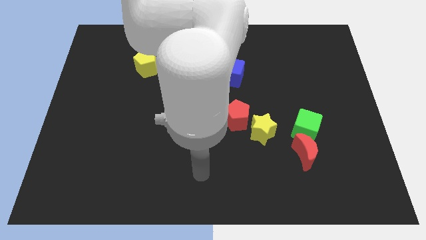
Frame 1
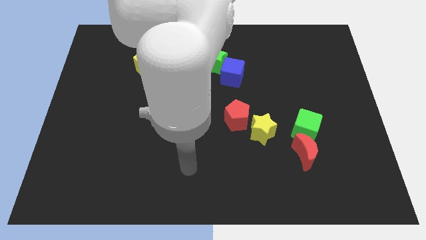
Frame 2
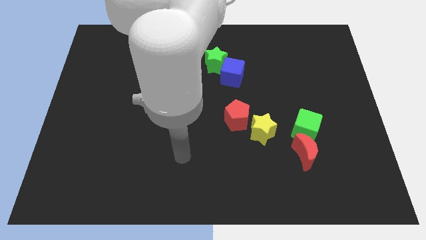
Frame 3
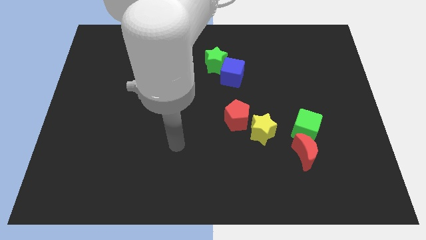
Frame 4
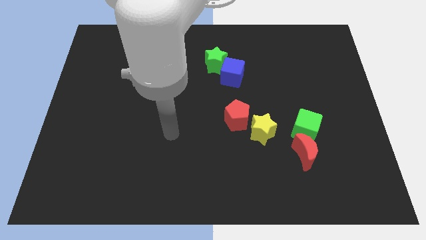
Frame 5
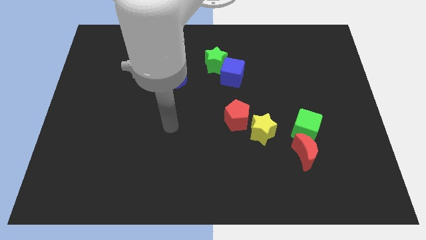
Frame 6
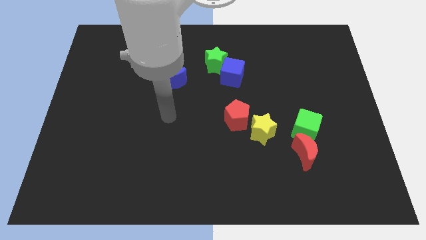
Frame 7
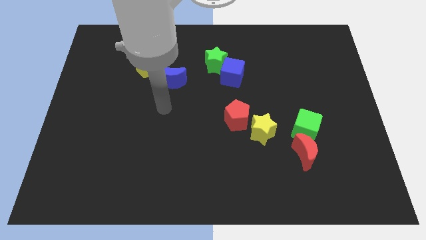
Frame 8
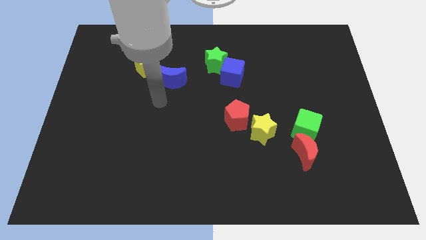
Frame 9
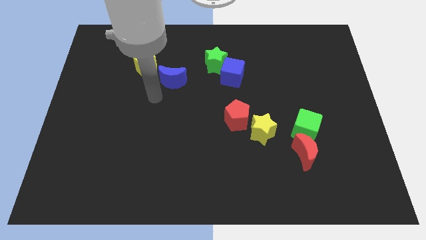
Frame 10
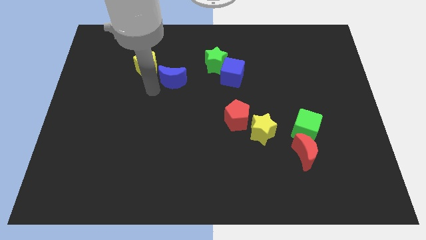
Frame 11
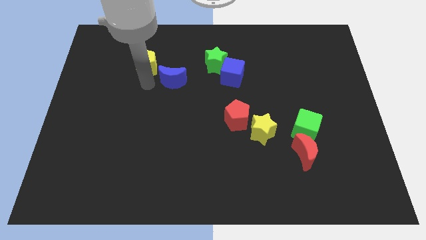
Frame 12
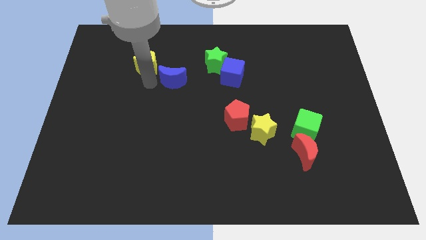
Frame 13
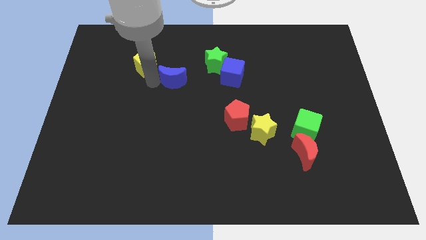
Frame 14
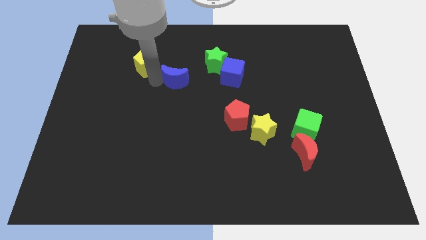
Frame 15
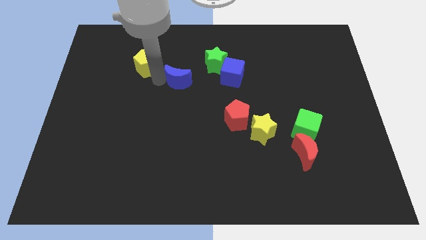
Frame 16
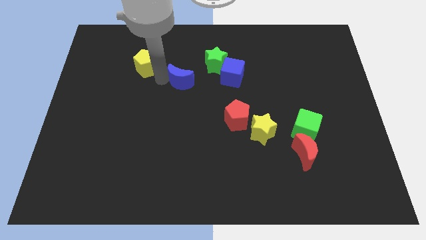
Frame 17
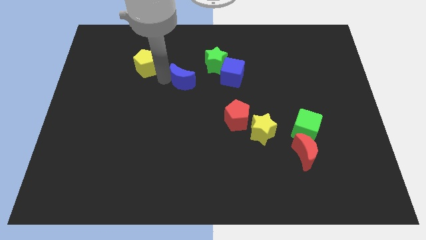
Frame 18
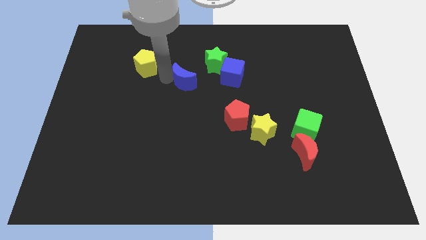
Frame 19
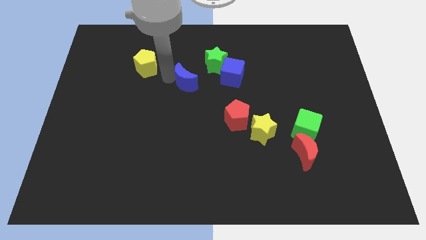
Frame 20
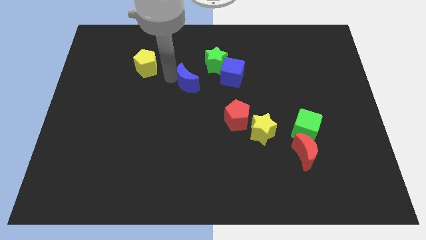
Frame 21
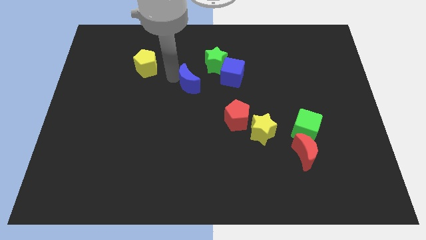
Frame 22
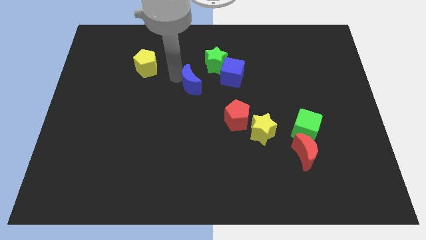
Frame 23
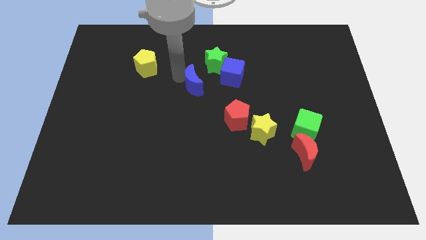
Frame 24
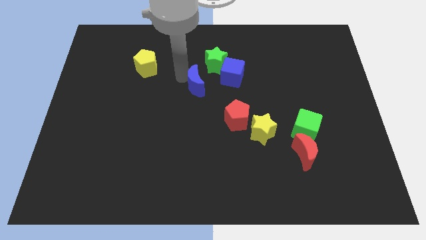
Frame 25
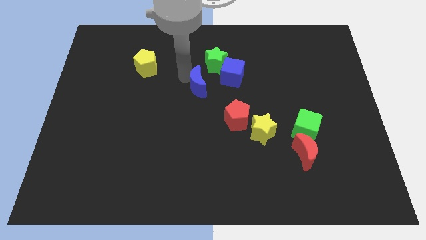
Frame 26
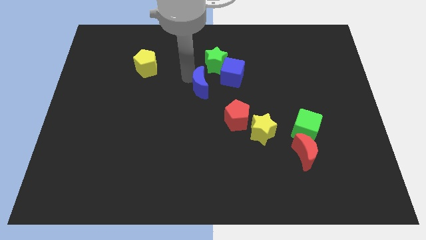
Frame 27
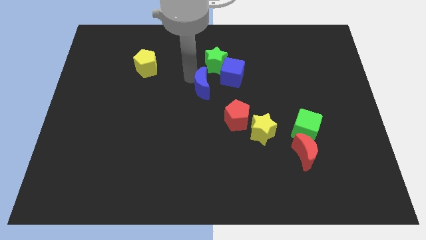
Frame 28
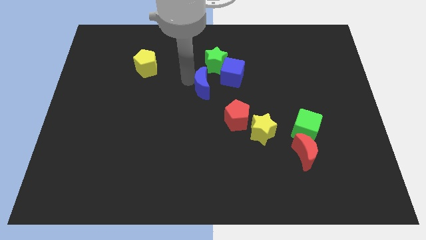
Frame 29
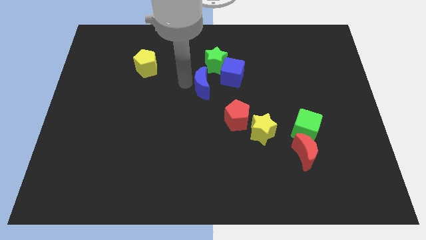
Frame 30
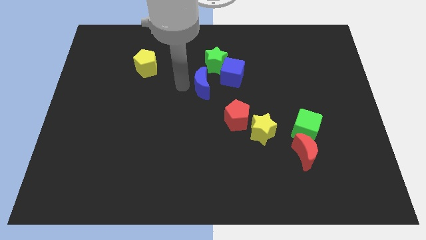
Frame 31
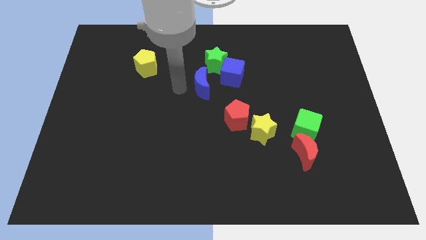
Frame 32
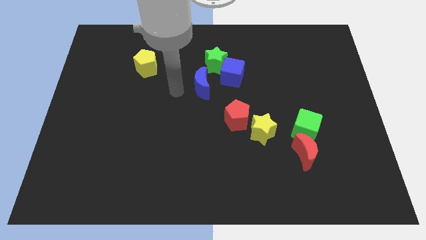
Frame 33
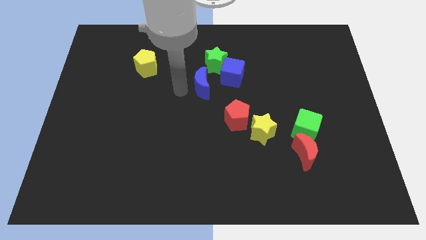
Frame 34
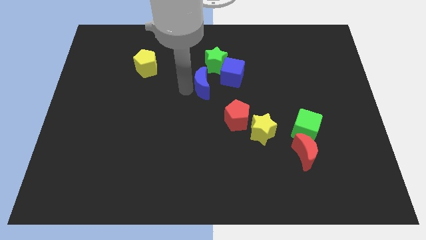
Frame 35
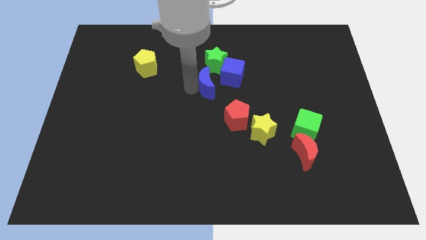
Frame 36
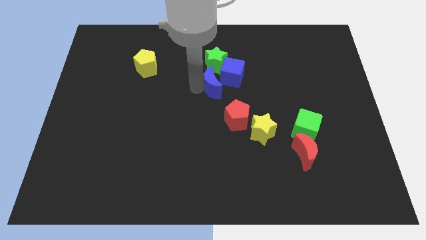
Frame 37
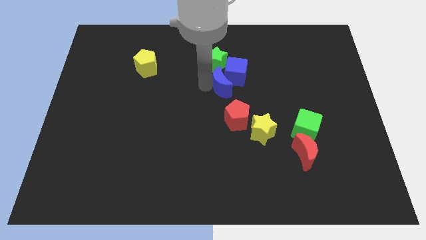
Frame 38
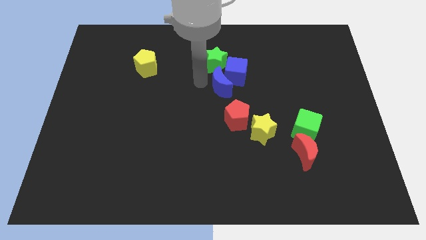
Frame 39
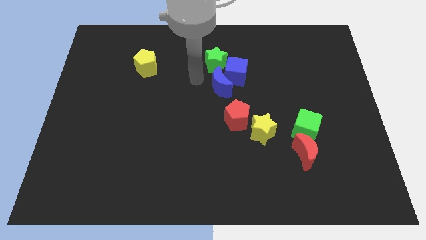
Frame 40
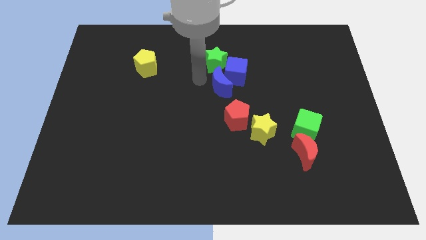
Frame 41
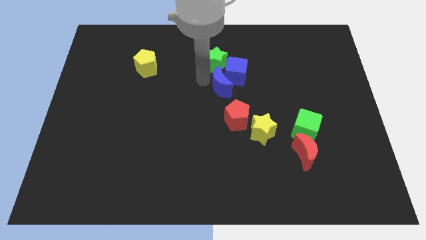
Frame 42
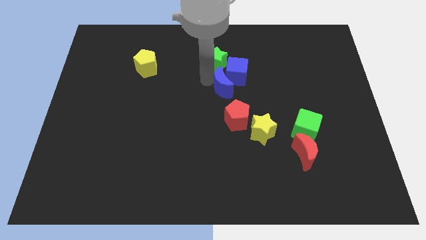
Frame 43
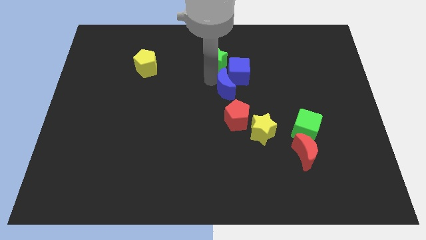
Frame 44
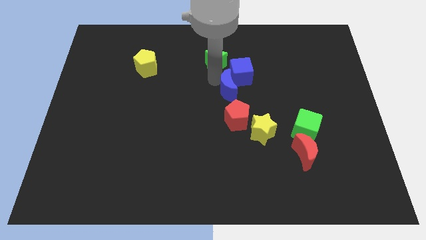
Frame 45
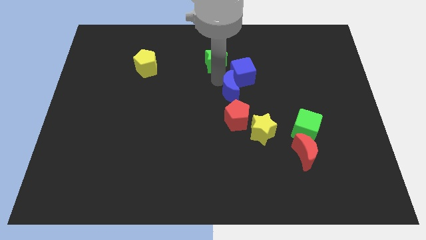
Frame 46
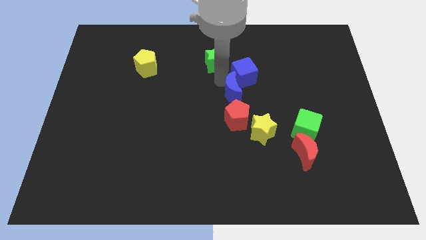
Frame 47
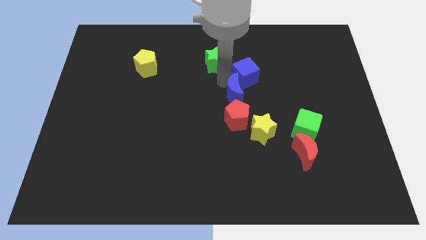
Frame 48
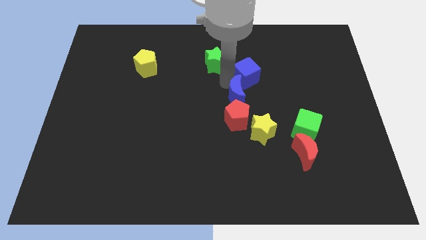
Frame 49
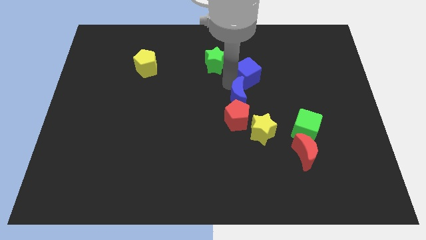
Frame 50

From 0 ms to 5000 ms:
push the blue moon above the yellow star

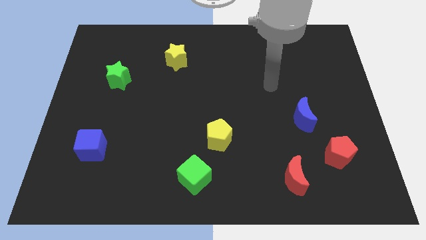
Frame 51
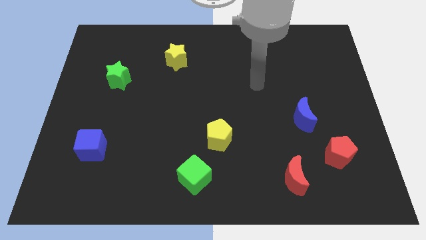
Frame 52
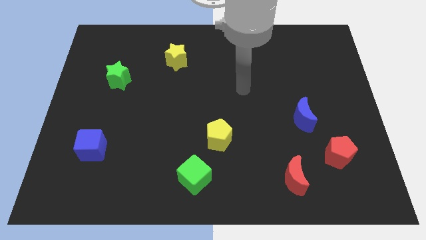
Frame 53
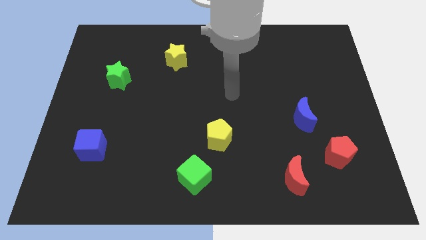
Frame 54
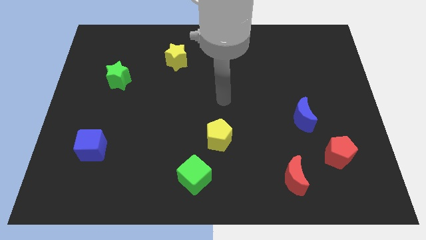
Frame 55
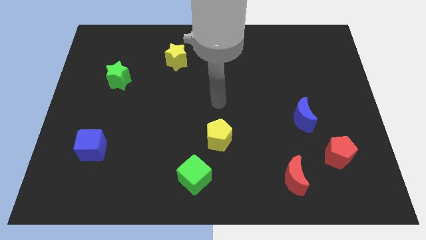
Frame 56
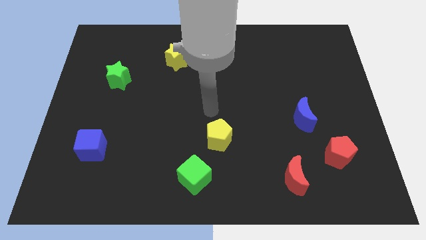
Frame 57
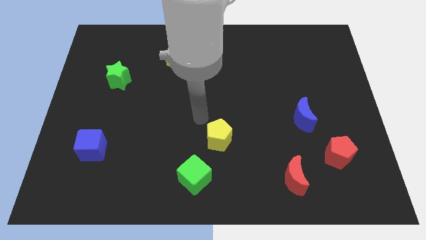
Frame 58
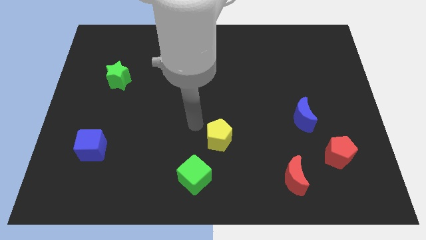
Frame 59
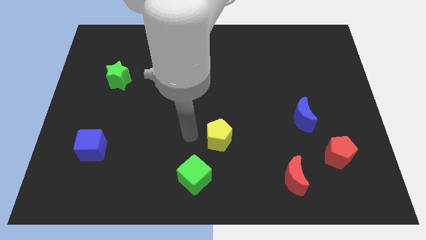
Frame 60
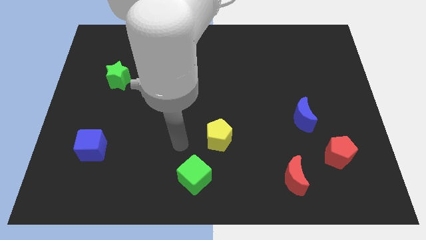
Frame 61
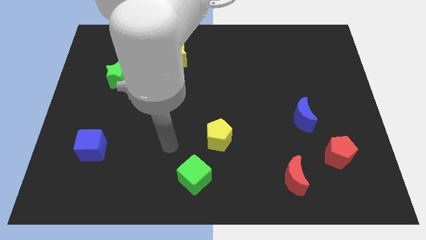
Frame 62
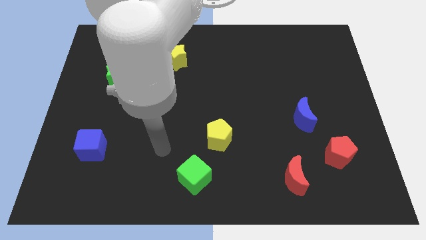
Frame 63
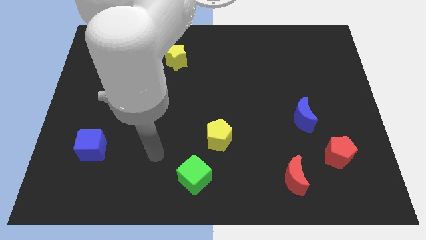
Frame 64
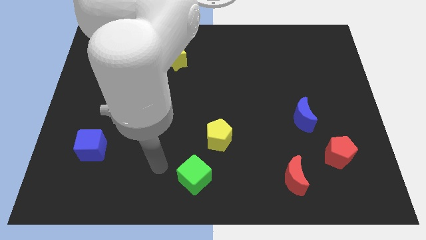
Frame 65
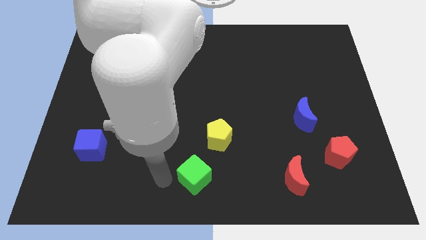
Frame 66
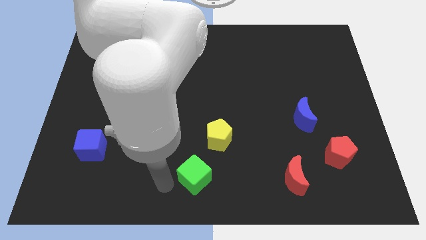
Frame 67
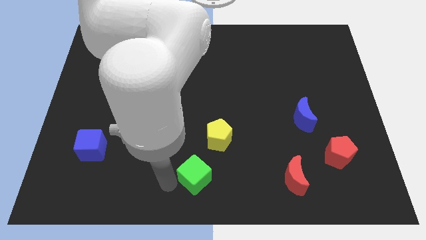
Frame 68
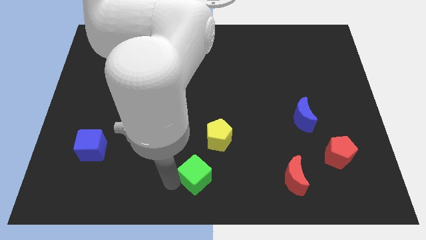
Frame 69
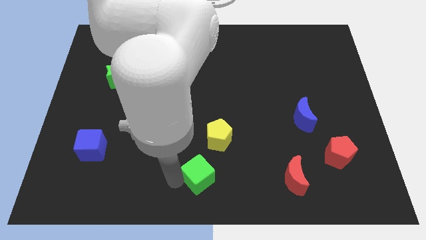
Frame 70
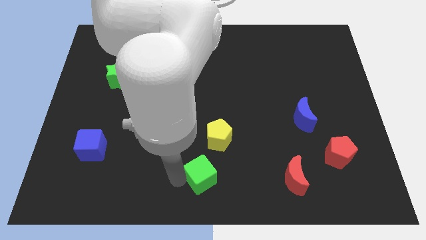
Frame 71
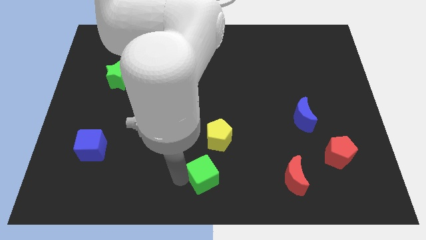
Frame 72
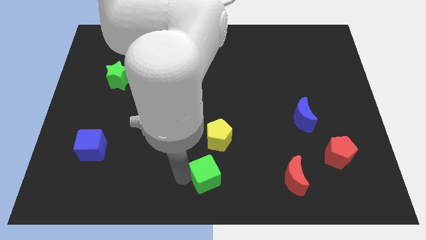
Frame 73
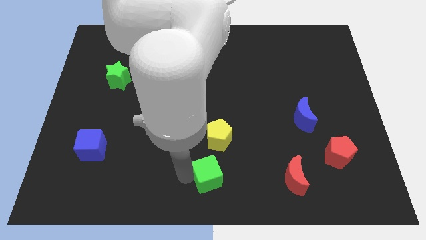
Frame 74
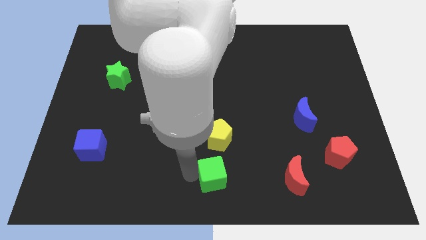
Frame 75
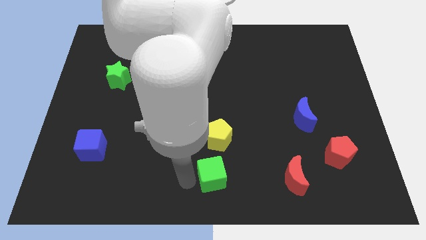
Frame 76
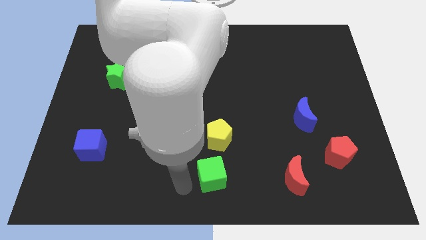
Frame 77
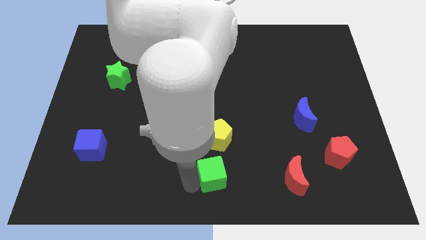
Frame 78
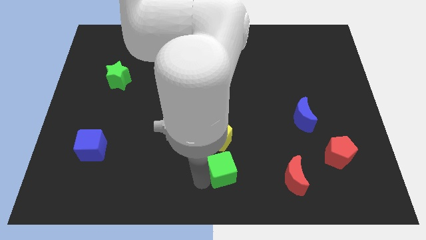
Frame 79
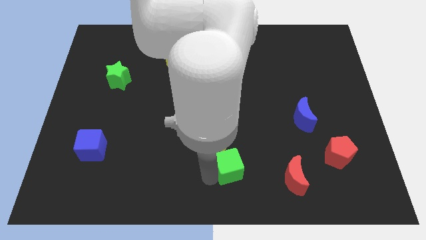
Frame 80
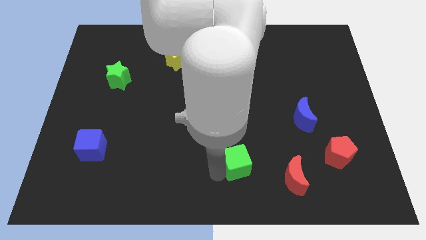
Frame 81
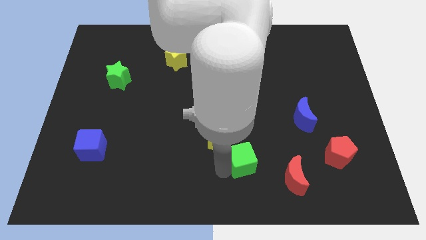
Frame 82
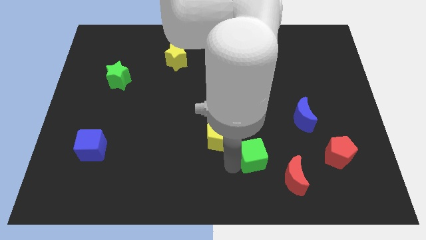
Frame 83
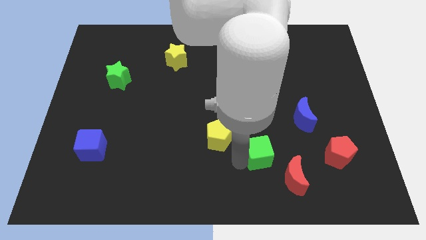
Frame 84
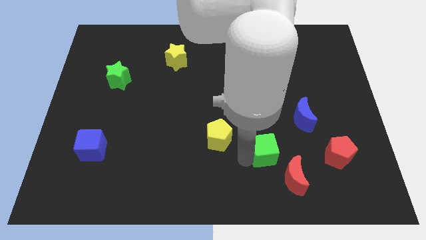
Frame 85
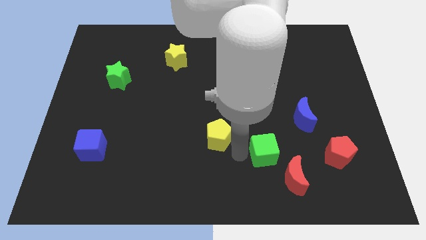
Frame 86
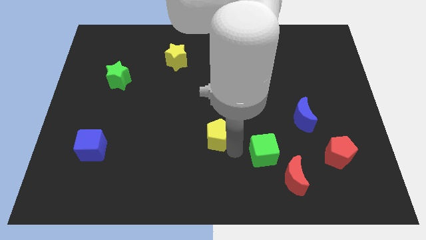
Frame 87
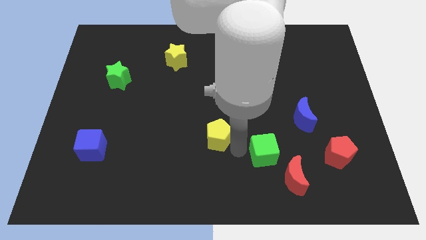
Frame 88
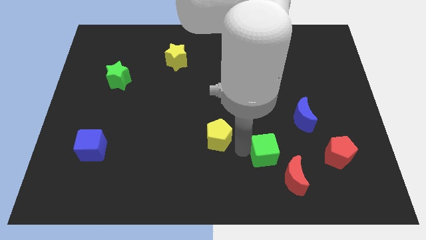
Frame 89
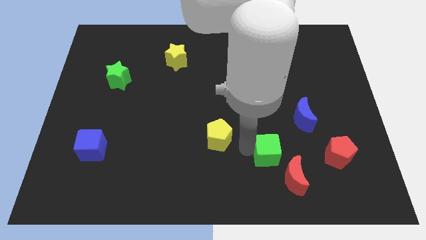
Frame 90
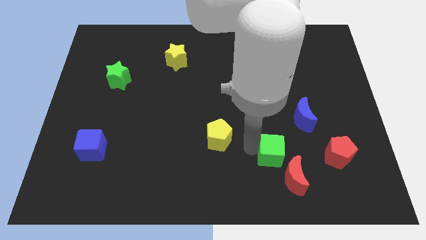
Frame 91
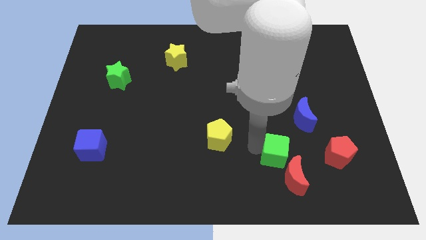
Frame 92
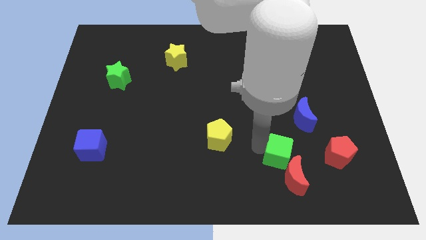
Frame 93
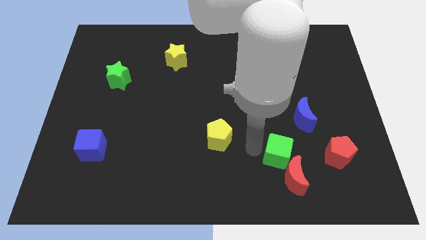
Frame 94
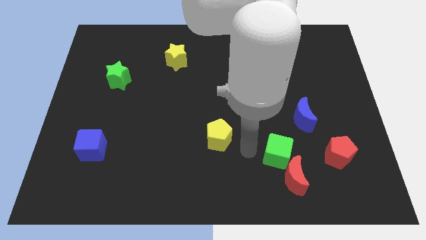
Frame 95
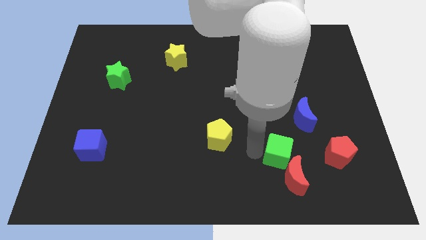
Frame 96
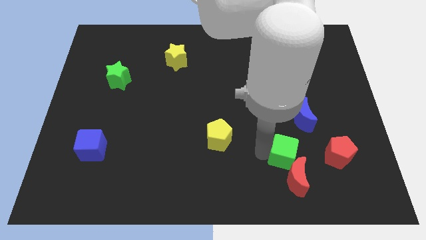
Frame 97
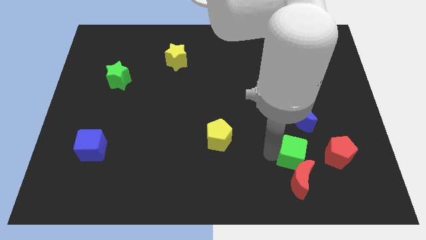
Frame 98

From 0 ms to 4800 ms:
put the green cube to the bottom side of the blue moon
